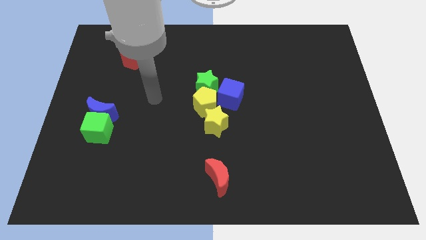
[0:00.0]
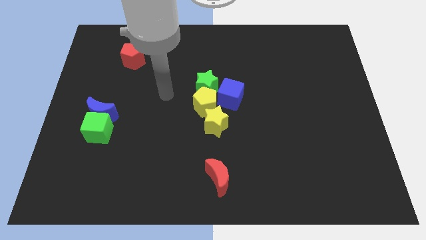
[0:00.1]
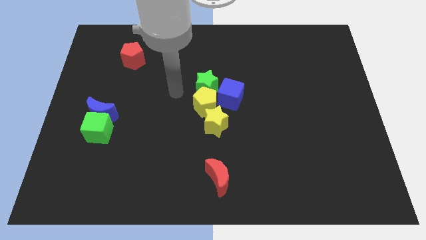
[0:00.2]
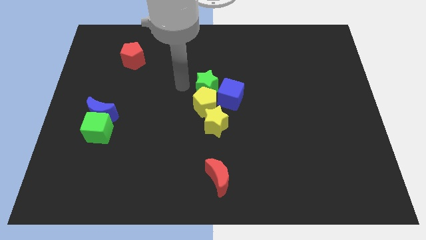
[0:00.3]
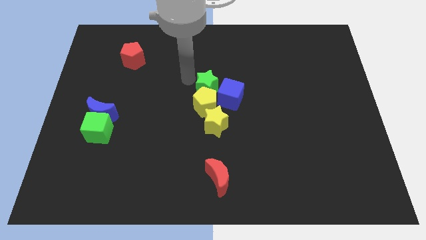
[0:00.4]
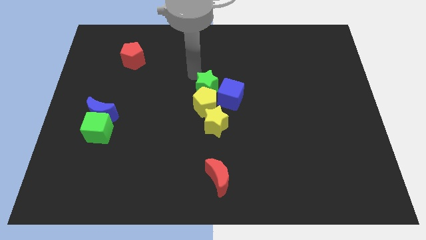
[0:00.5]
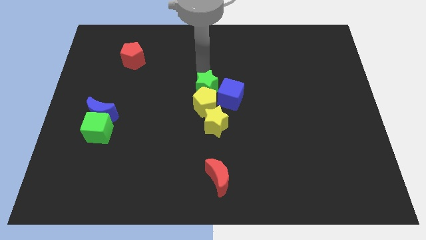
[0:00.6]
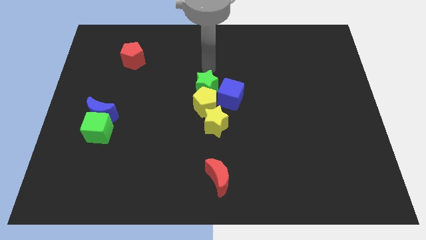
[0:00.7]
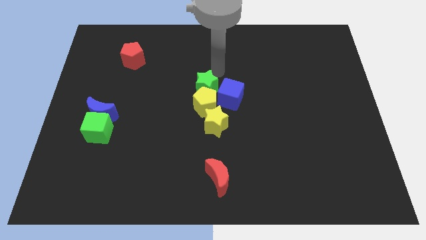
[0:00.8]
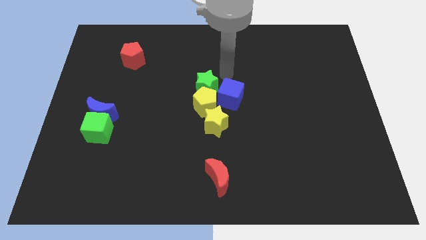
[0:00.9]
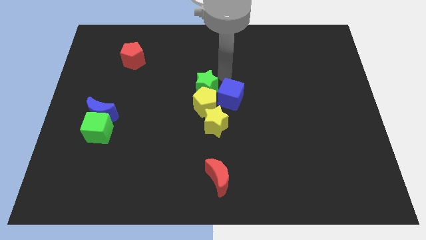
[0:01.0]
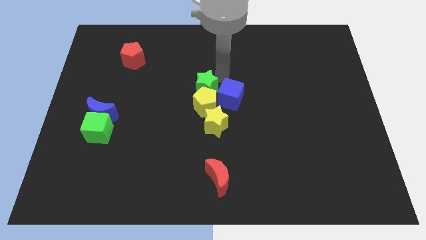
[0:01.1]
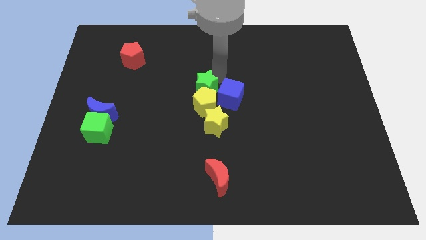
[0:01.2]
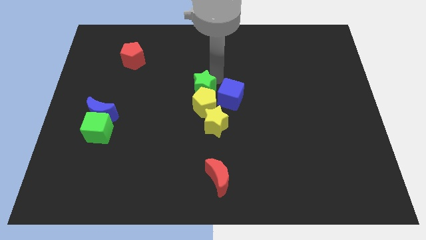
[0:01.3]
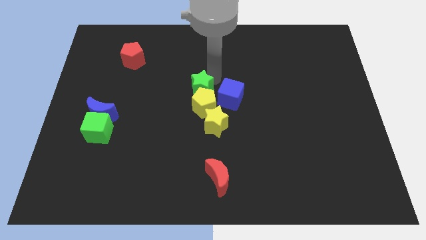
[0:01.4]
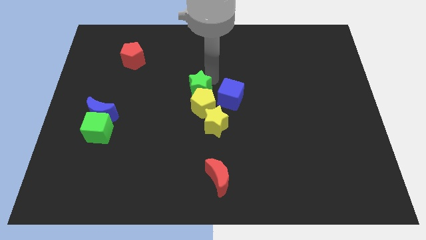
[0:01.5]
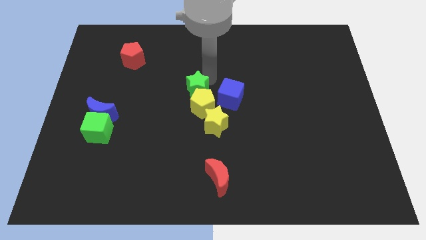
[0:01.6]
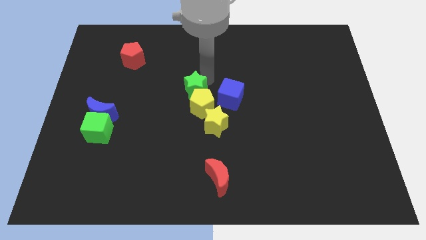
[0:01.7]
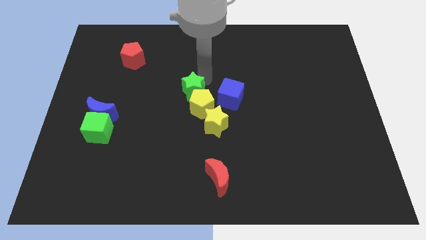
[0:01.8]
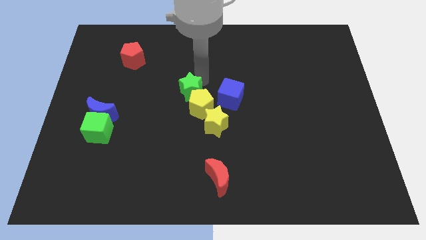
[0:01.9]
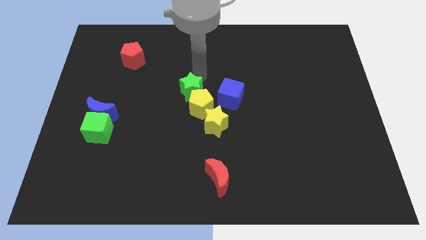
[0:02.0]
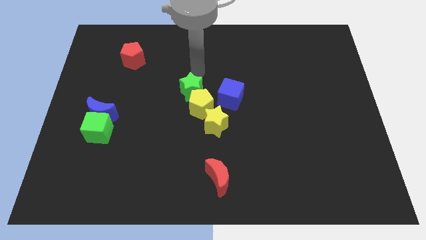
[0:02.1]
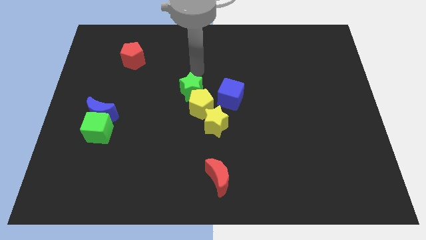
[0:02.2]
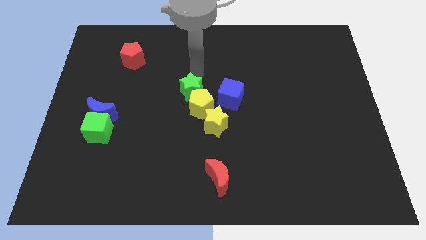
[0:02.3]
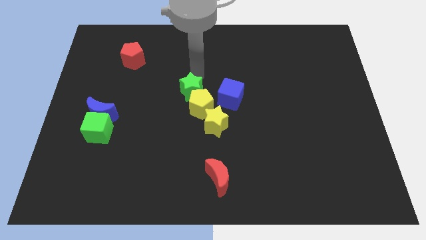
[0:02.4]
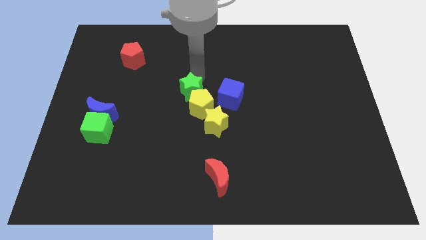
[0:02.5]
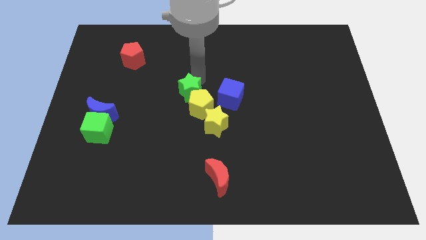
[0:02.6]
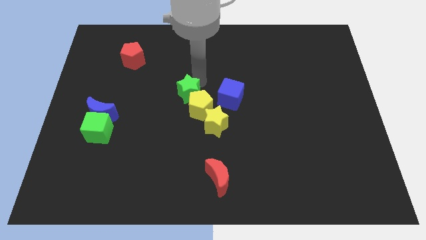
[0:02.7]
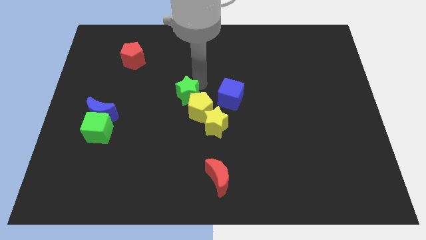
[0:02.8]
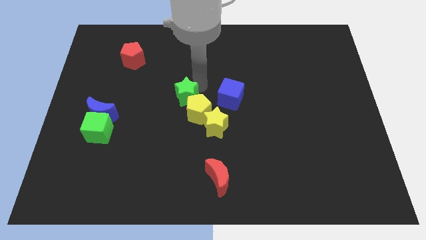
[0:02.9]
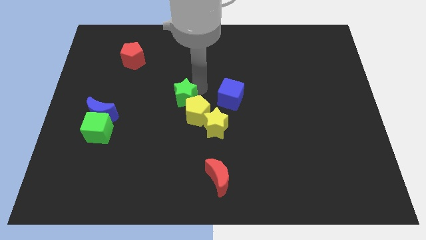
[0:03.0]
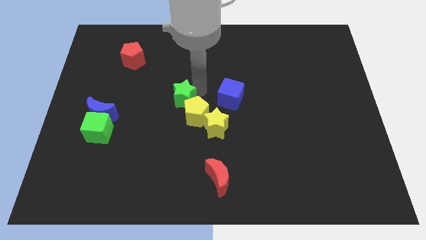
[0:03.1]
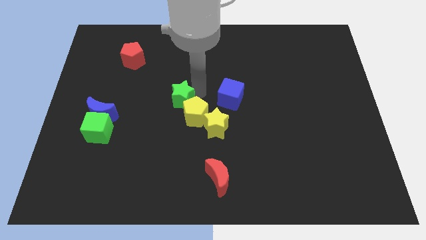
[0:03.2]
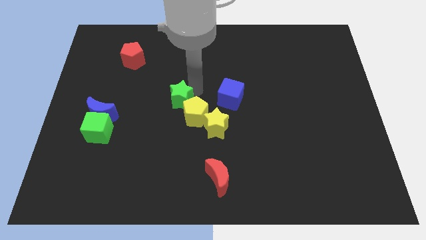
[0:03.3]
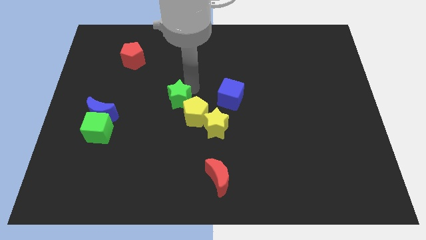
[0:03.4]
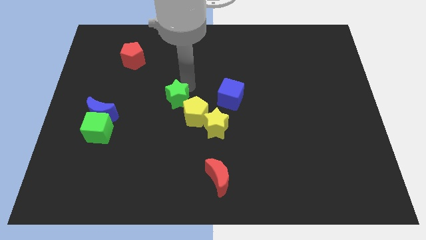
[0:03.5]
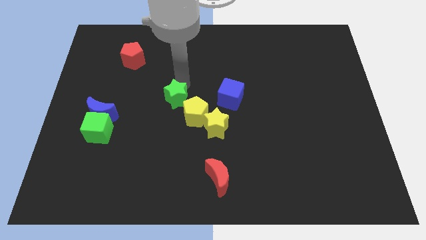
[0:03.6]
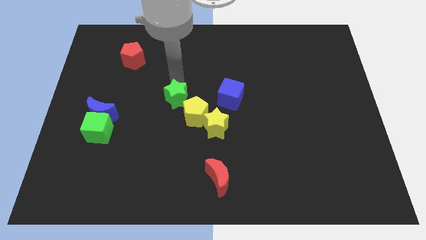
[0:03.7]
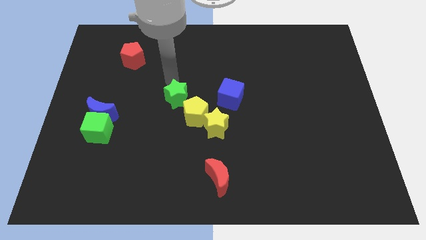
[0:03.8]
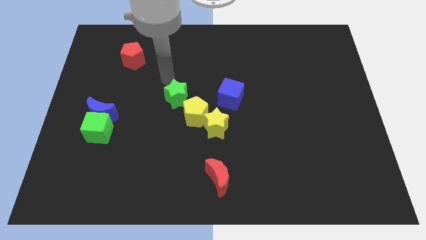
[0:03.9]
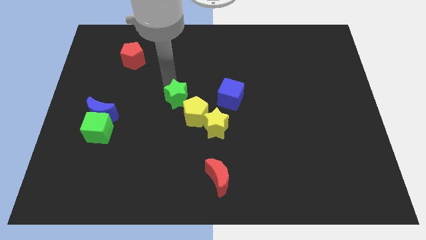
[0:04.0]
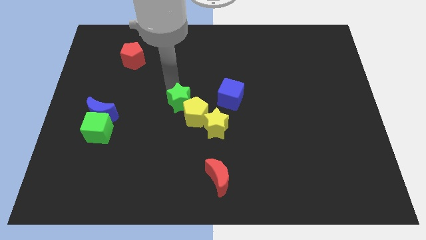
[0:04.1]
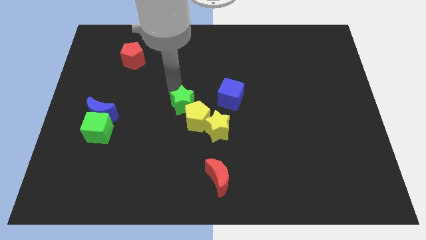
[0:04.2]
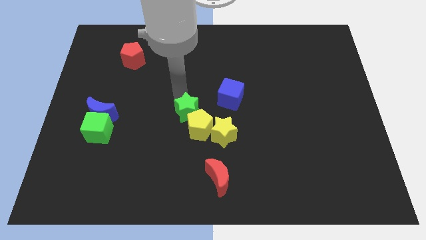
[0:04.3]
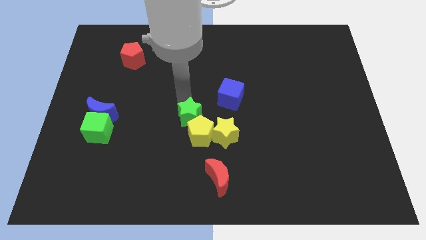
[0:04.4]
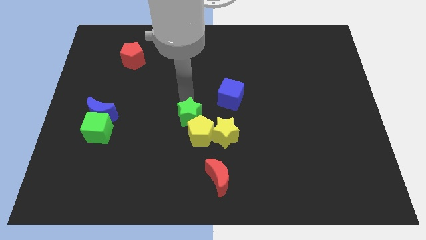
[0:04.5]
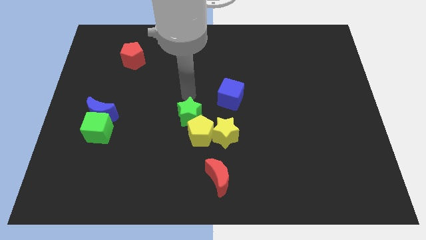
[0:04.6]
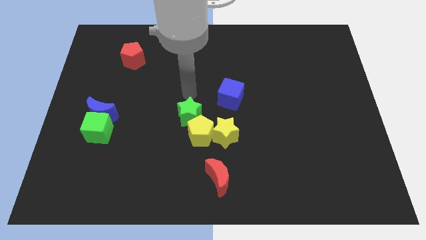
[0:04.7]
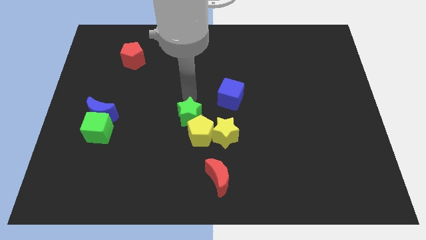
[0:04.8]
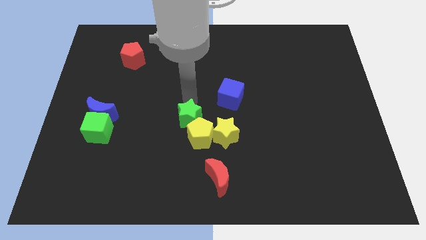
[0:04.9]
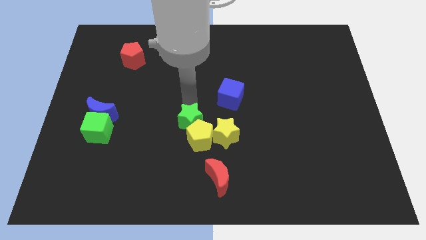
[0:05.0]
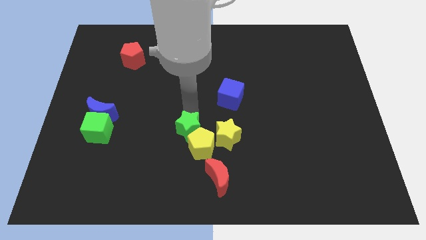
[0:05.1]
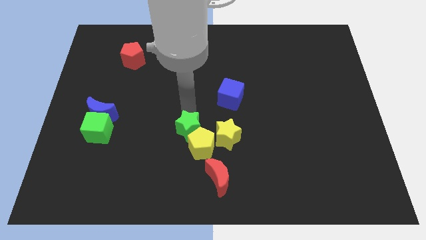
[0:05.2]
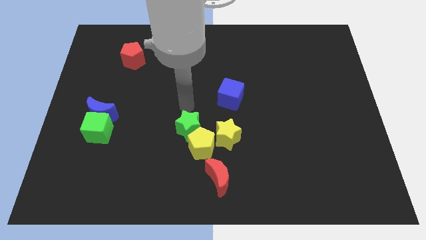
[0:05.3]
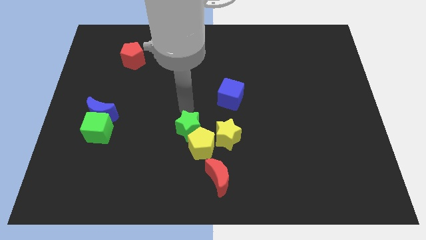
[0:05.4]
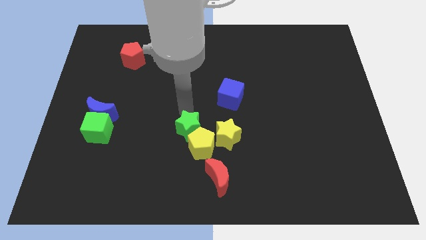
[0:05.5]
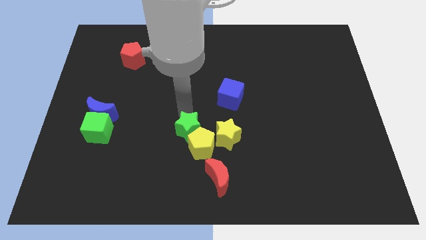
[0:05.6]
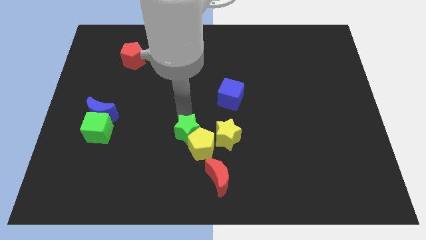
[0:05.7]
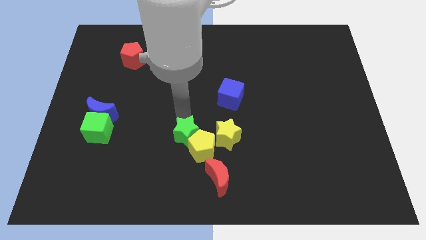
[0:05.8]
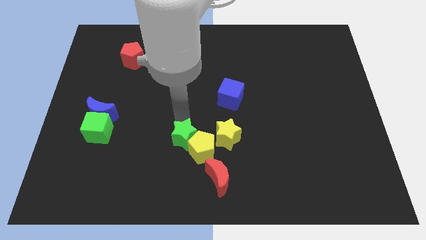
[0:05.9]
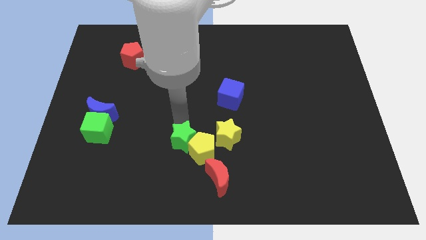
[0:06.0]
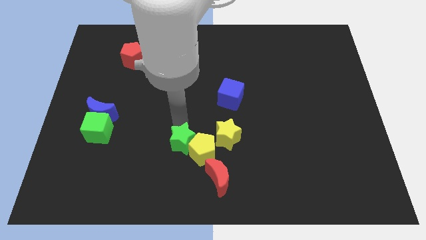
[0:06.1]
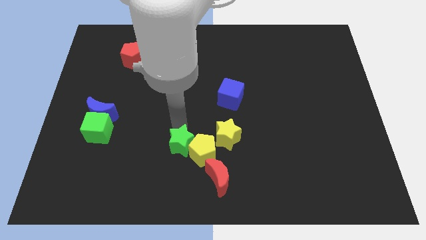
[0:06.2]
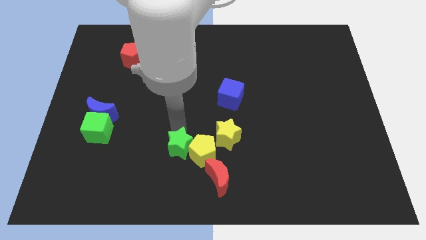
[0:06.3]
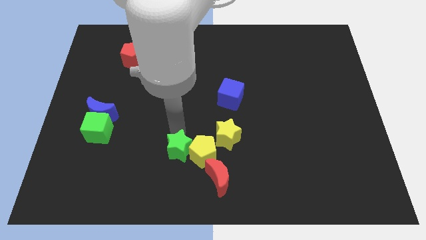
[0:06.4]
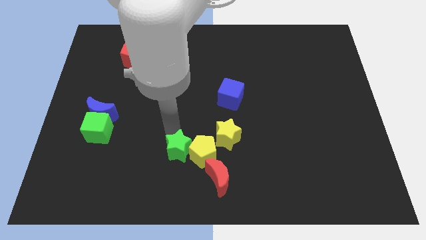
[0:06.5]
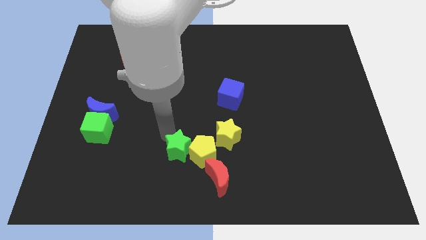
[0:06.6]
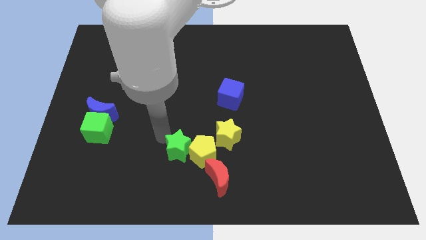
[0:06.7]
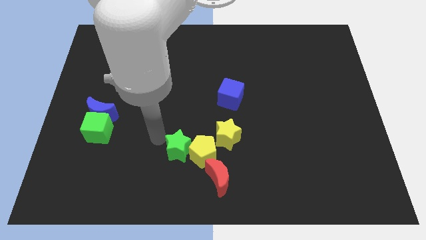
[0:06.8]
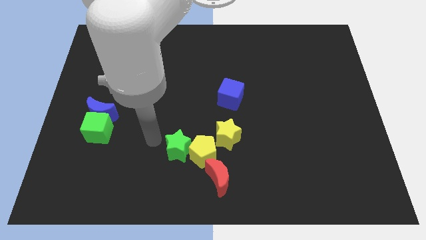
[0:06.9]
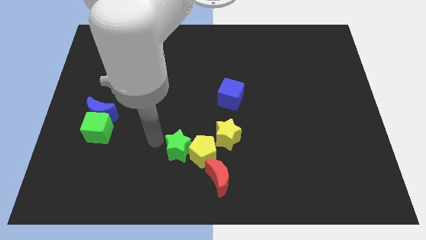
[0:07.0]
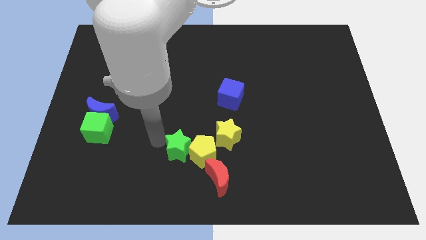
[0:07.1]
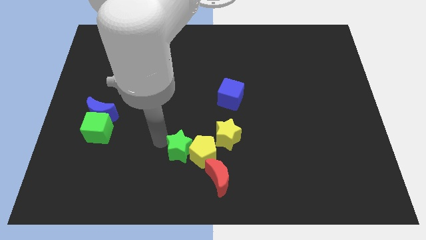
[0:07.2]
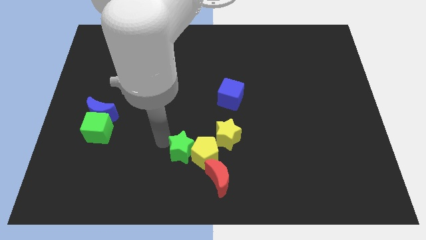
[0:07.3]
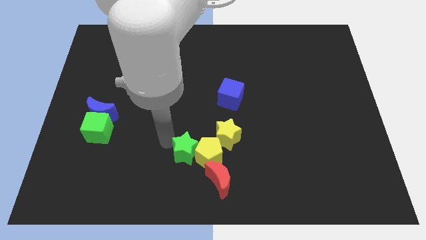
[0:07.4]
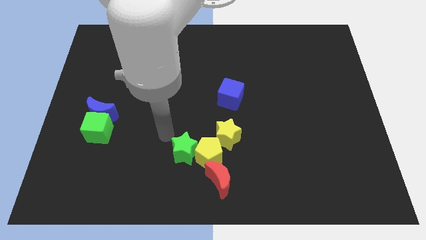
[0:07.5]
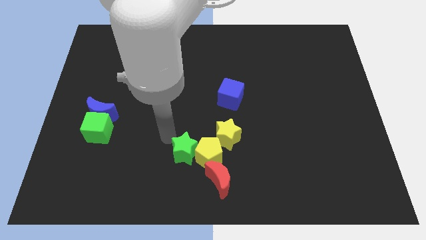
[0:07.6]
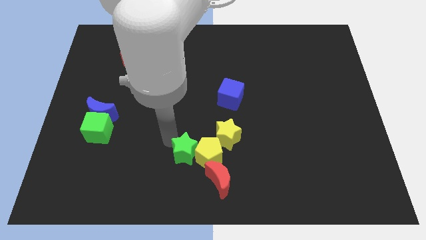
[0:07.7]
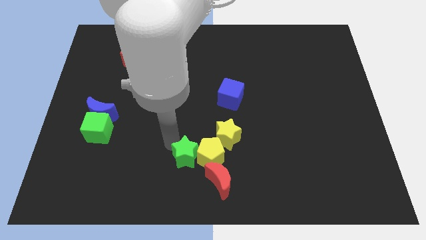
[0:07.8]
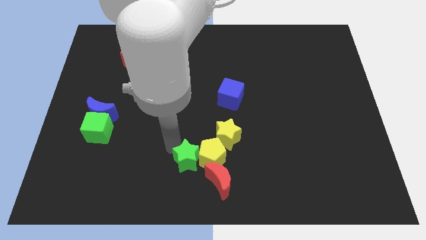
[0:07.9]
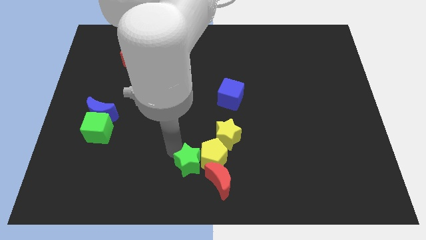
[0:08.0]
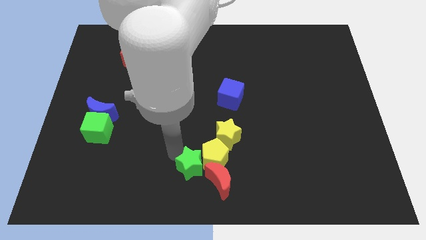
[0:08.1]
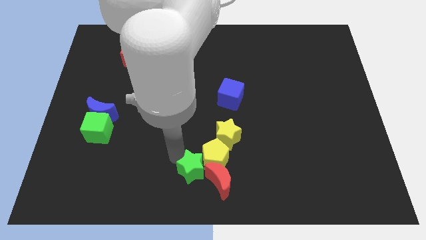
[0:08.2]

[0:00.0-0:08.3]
put the green star close to the red moon
